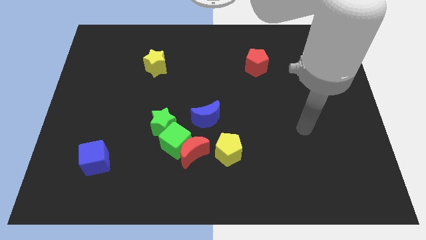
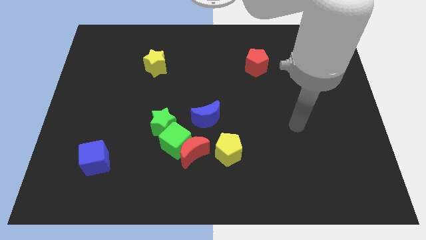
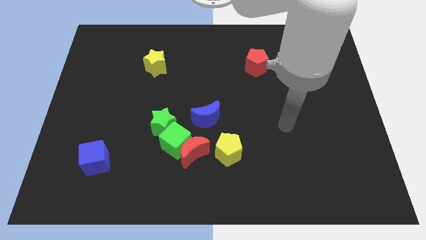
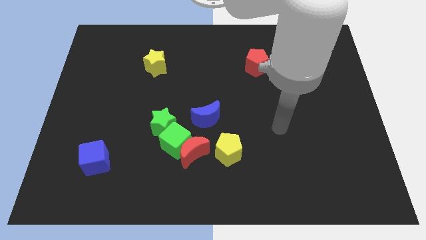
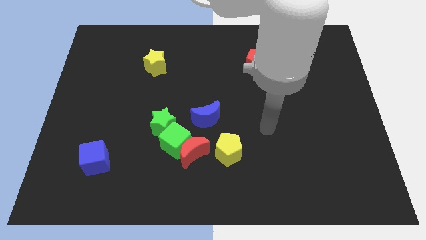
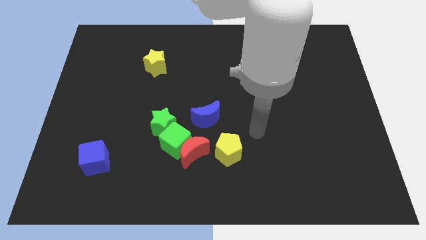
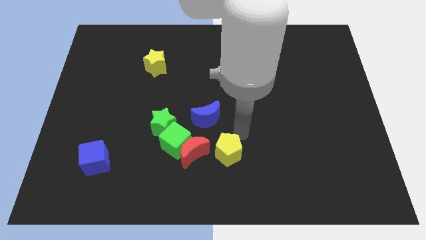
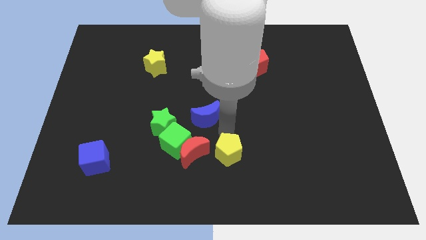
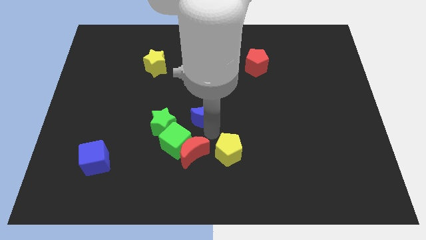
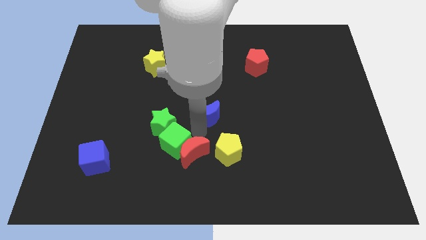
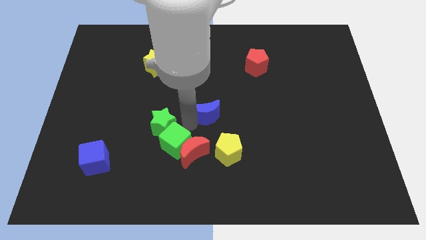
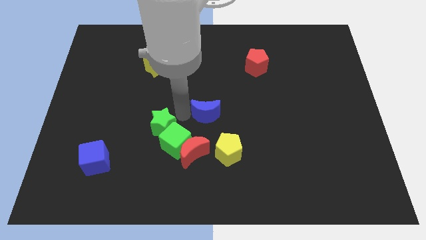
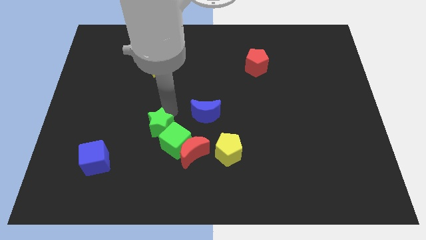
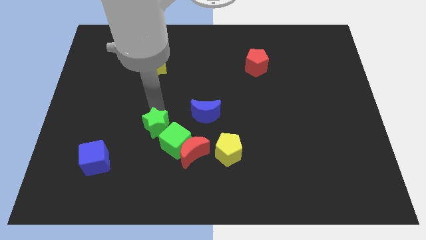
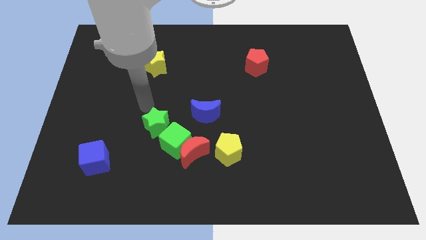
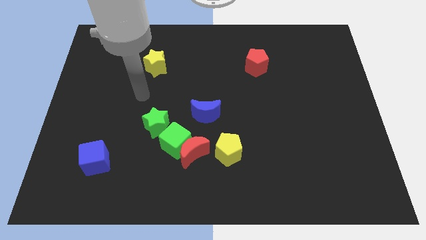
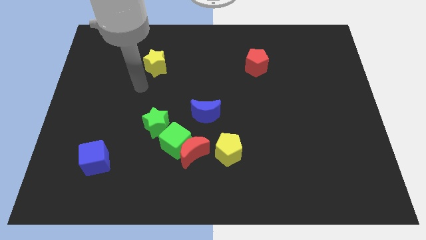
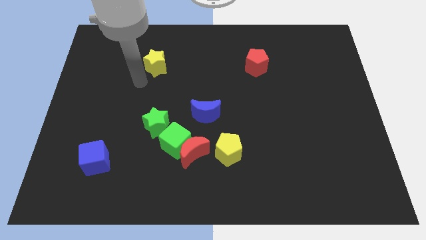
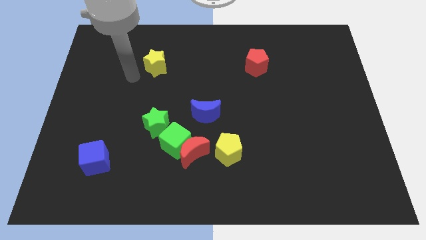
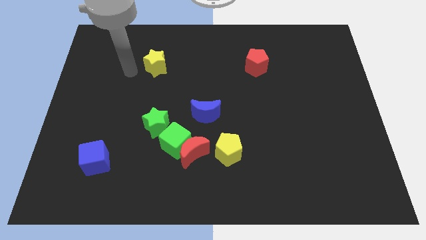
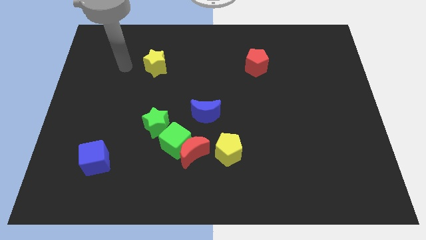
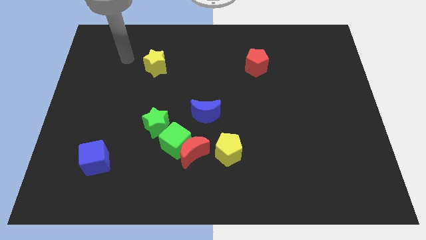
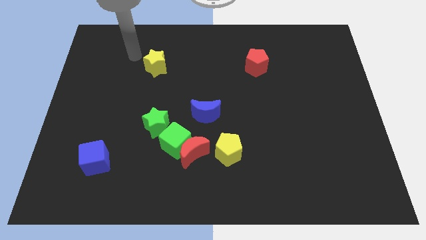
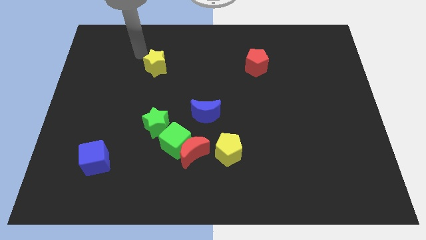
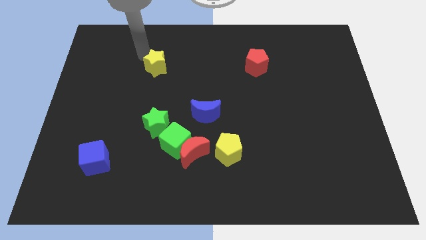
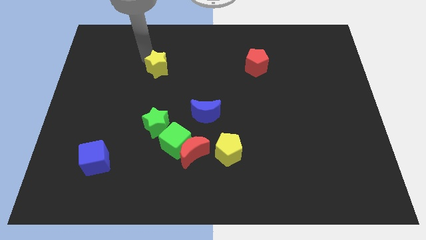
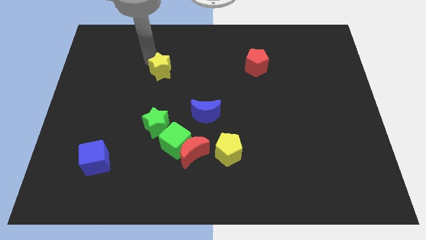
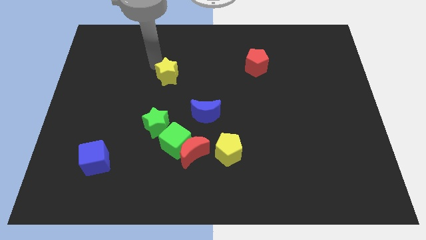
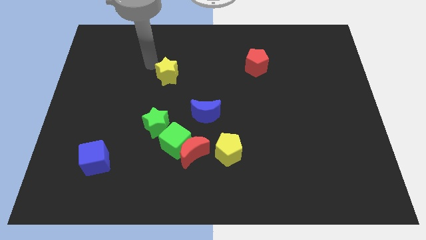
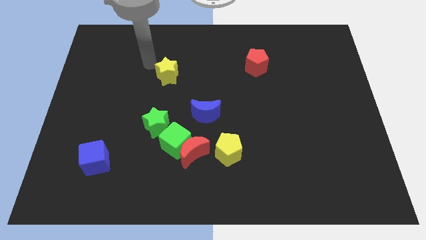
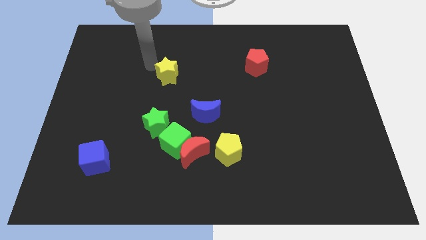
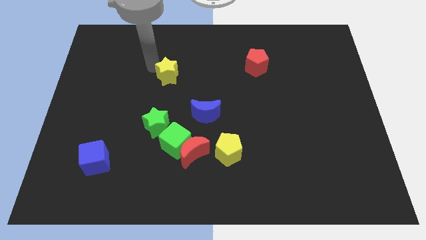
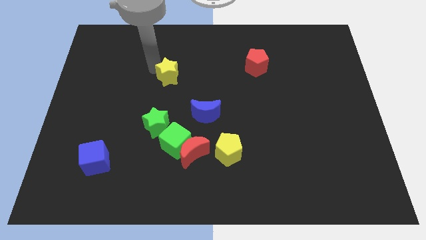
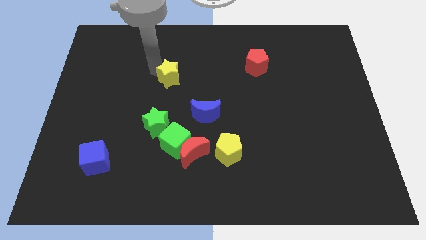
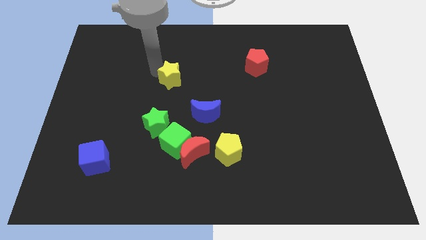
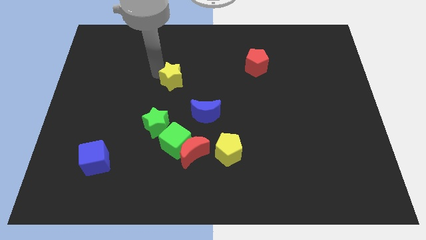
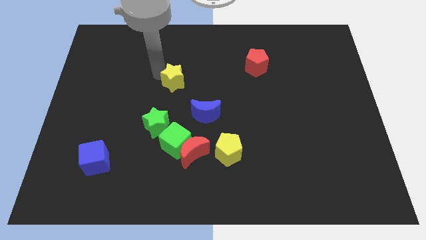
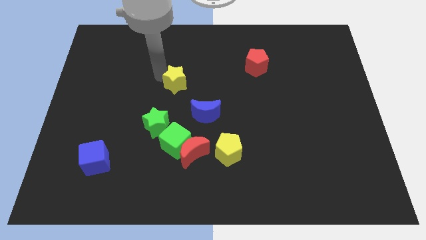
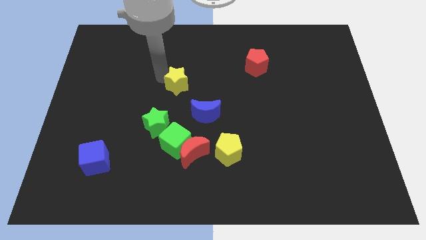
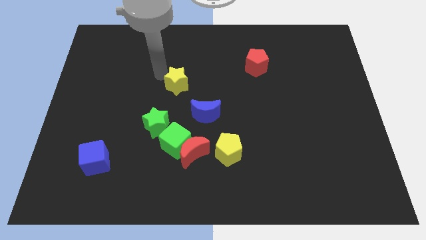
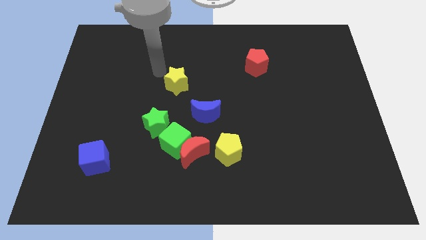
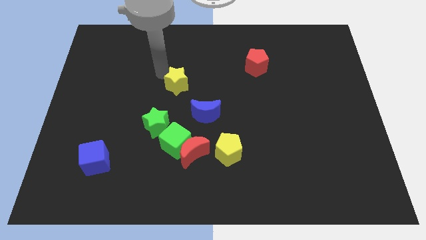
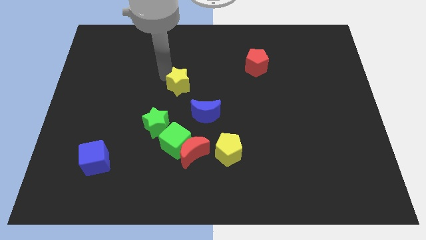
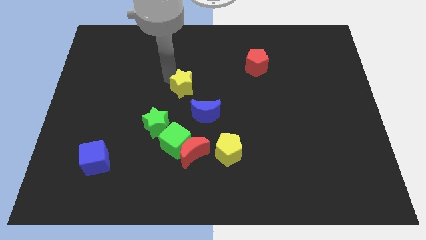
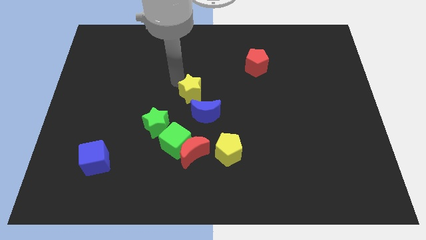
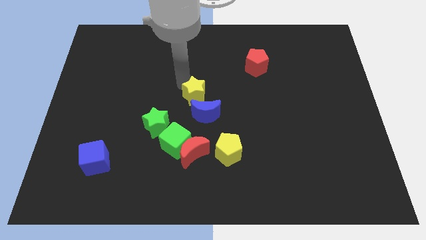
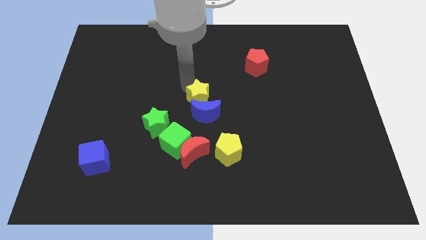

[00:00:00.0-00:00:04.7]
slide the yellow star towards the blue moon

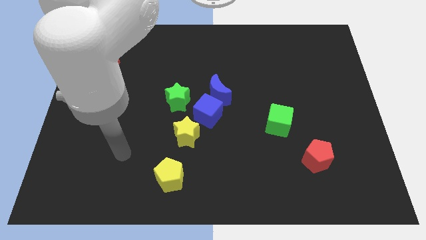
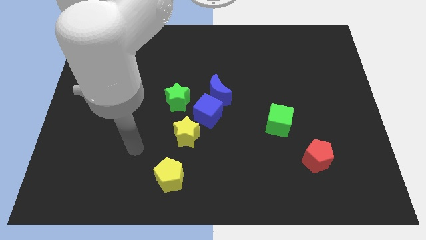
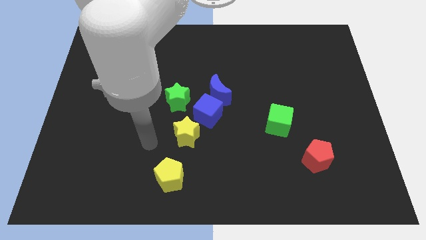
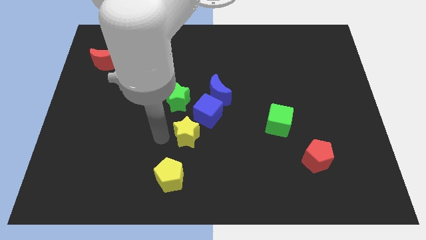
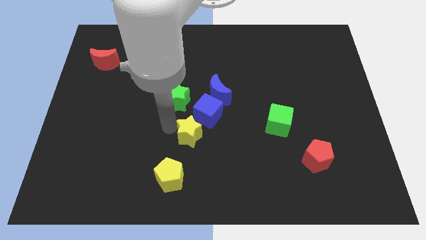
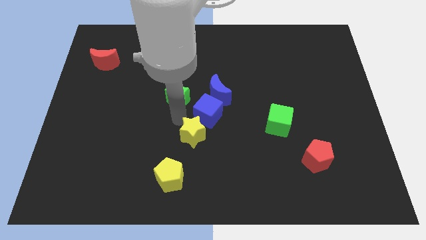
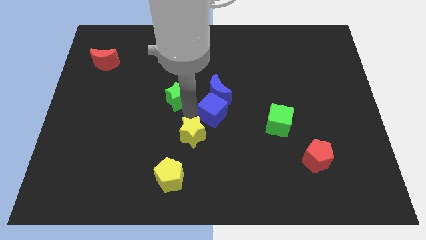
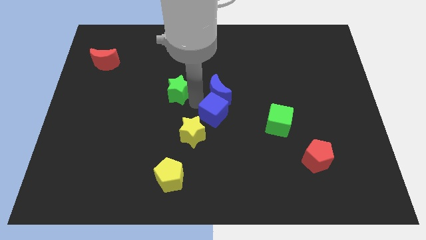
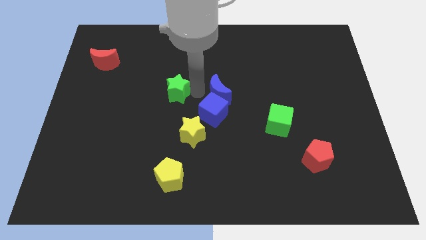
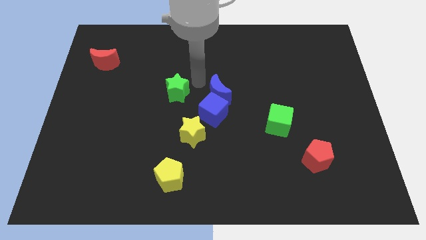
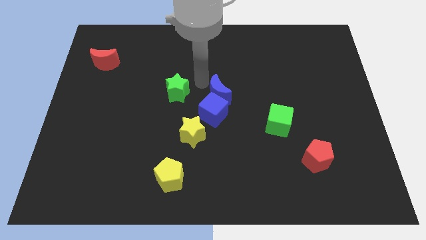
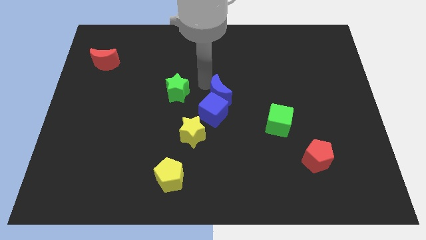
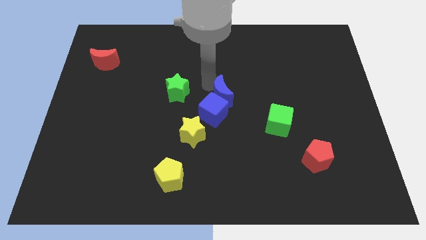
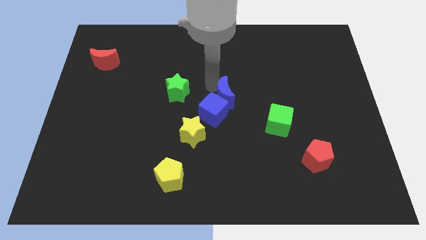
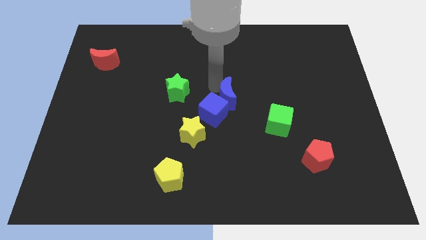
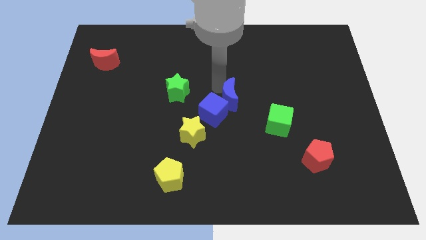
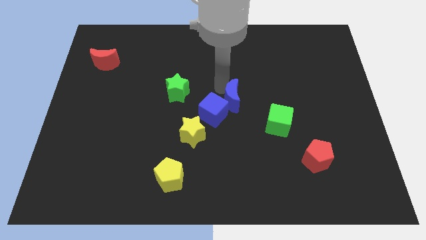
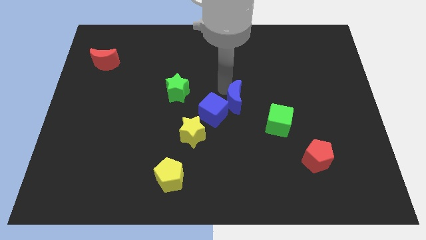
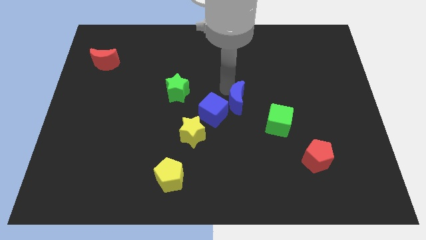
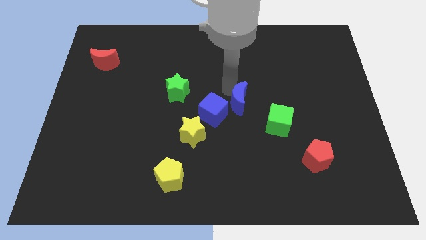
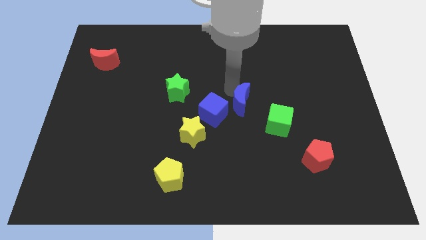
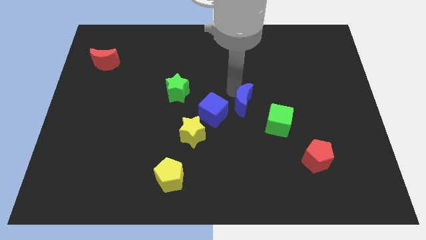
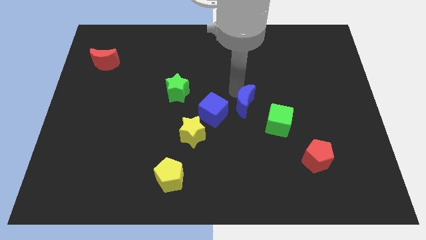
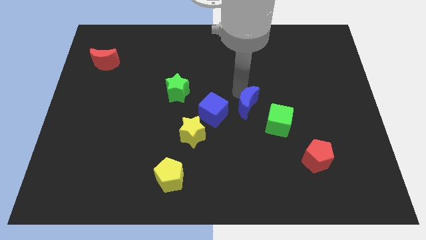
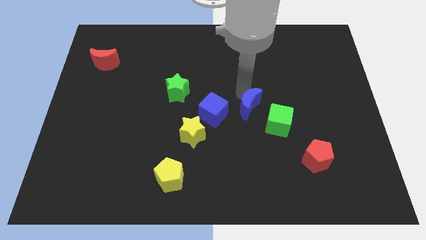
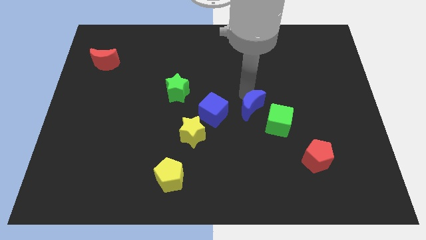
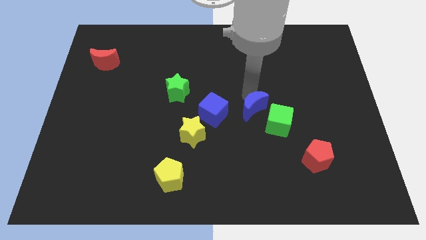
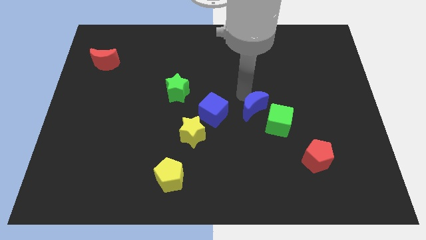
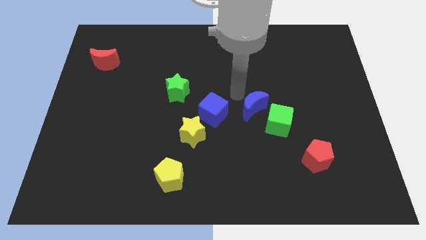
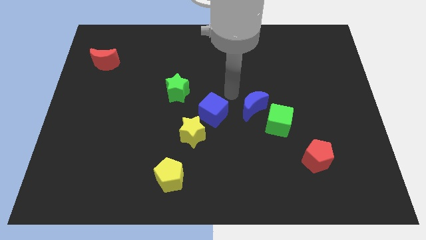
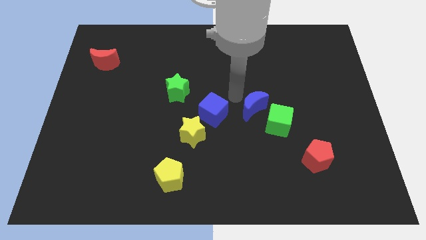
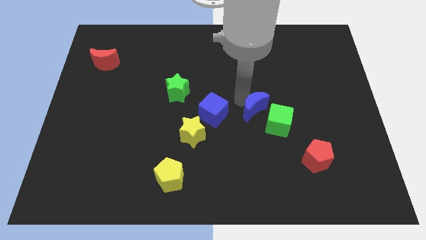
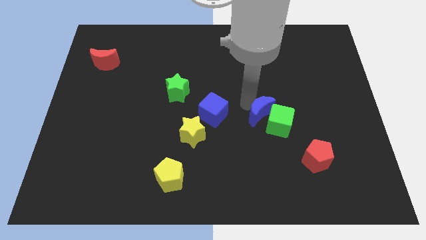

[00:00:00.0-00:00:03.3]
put the blue moon towards the green cube
